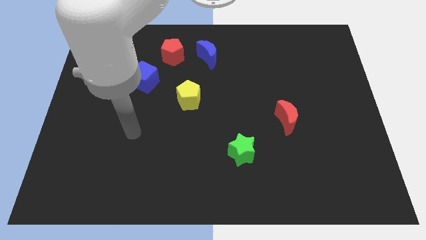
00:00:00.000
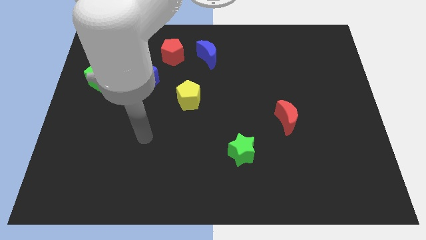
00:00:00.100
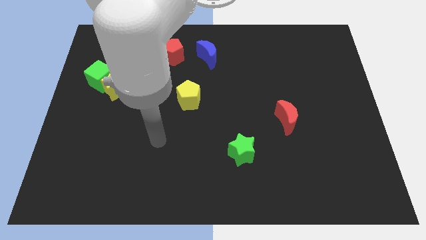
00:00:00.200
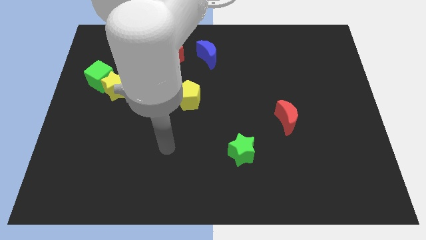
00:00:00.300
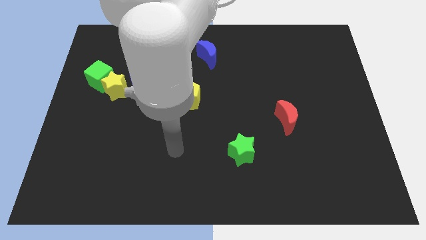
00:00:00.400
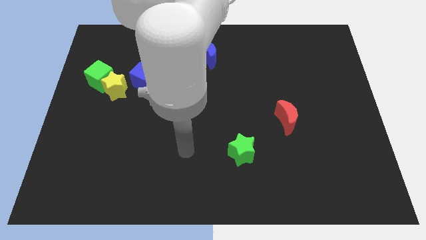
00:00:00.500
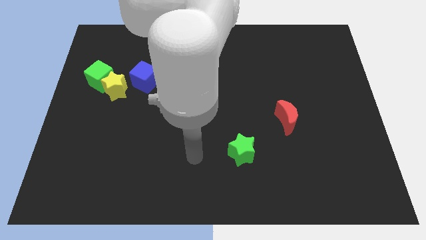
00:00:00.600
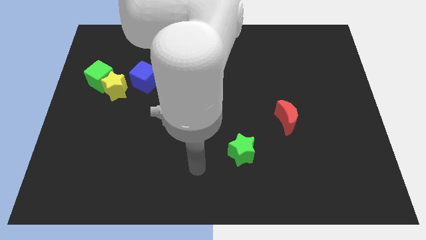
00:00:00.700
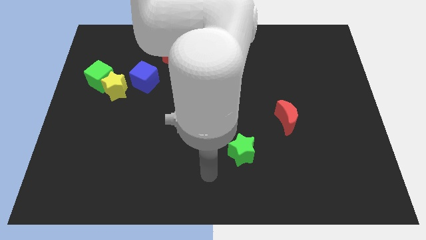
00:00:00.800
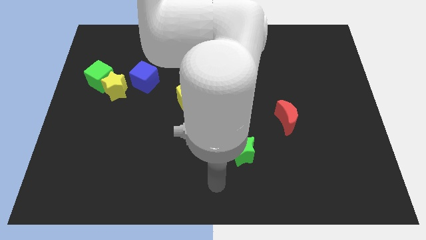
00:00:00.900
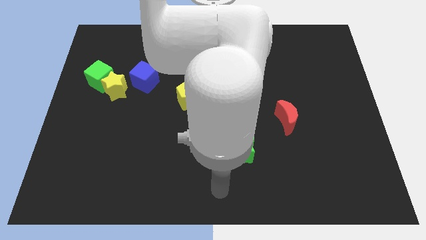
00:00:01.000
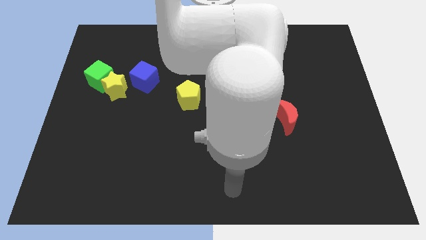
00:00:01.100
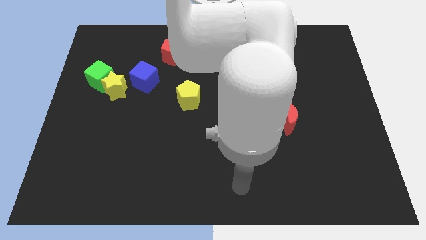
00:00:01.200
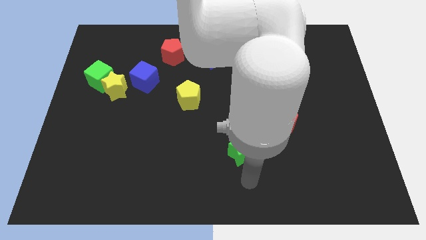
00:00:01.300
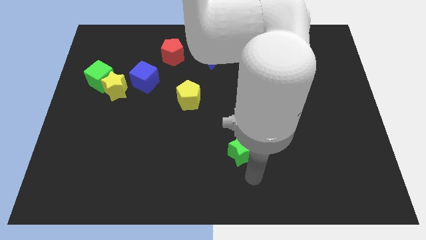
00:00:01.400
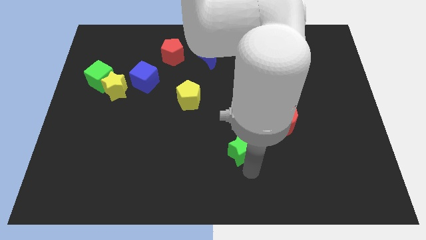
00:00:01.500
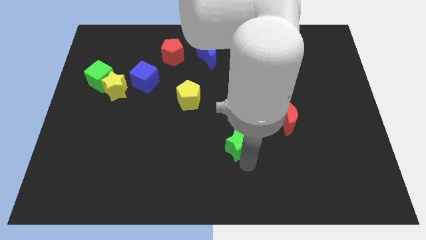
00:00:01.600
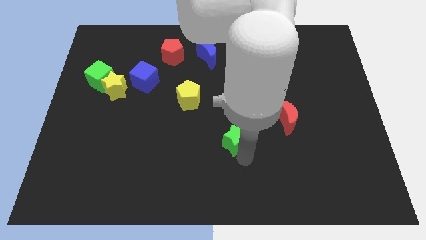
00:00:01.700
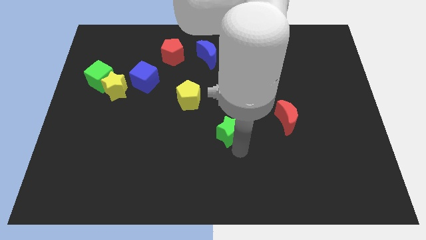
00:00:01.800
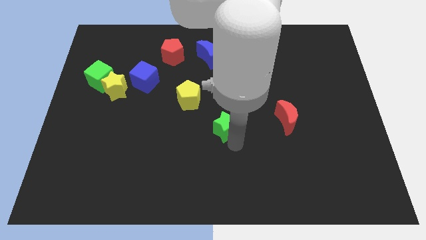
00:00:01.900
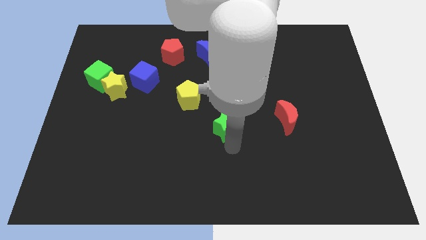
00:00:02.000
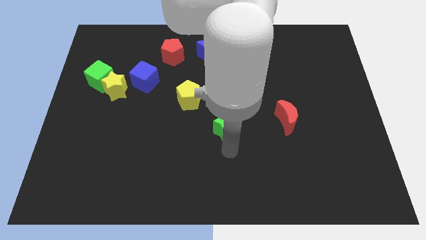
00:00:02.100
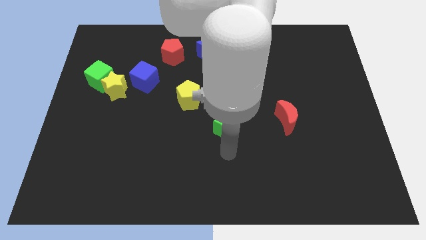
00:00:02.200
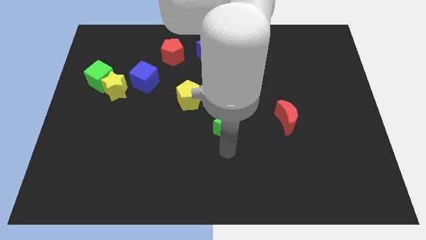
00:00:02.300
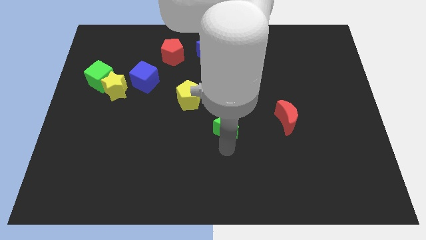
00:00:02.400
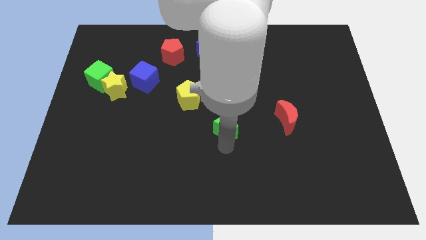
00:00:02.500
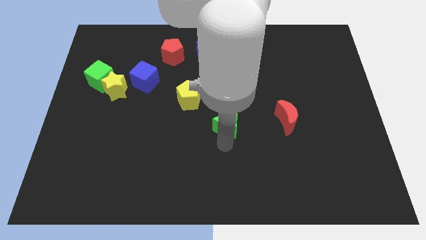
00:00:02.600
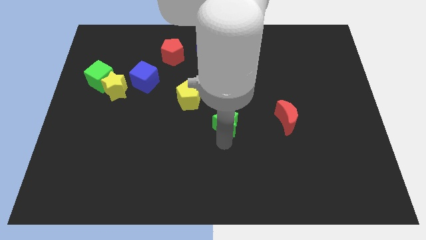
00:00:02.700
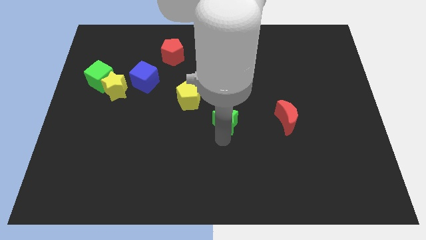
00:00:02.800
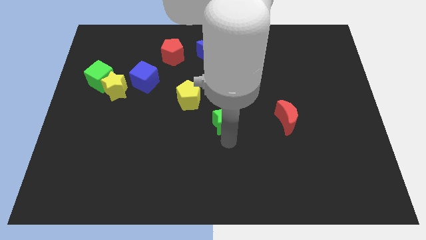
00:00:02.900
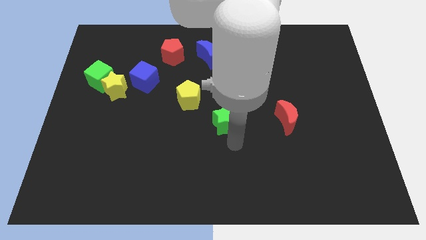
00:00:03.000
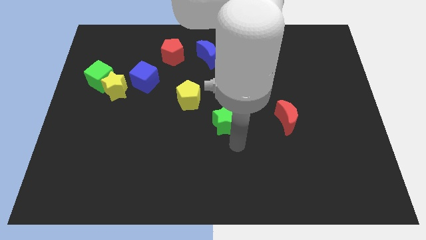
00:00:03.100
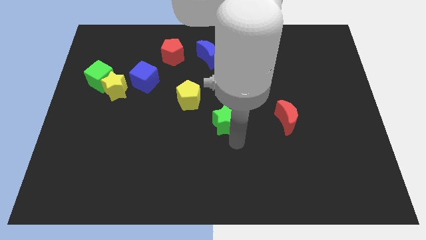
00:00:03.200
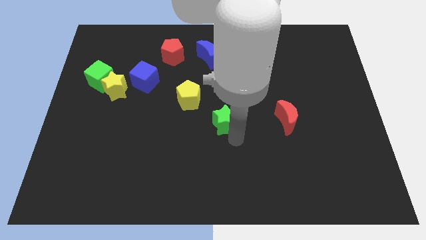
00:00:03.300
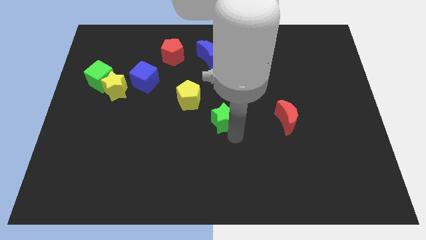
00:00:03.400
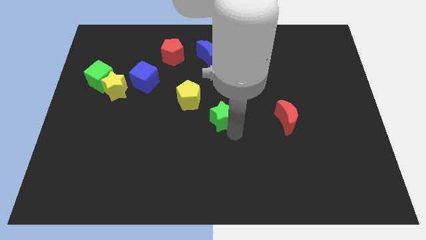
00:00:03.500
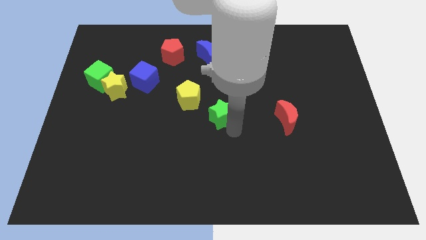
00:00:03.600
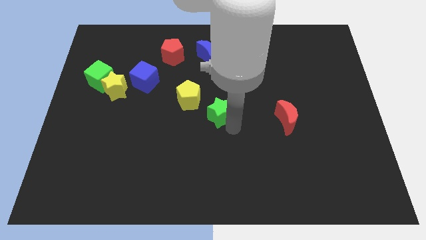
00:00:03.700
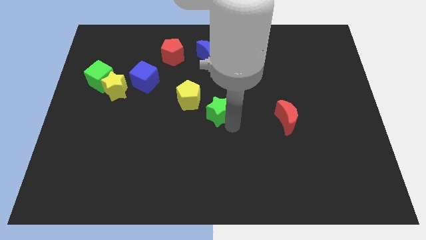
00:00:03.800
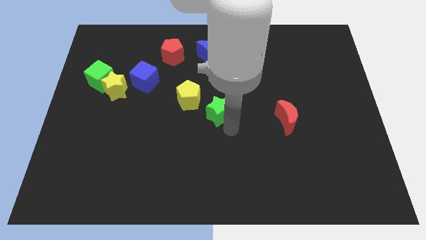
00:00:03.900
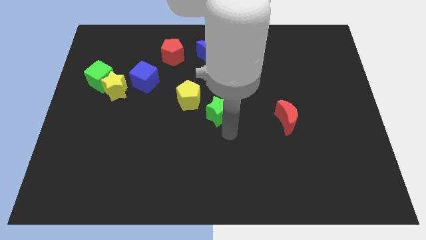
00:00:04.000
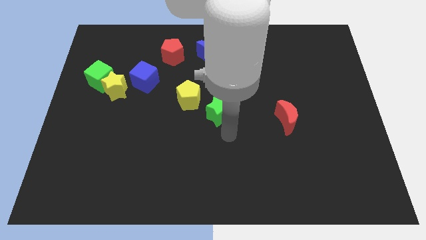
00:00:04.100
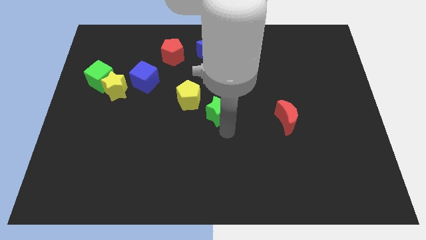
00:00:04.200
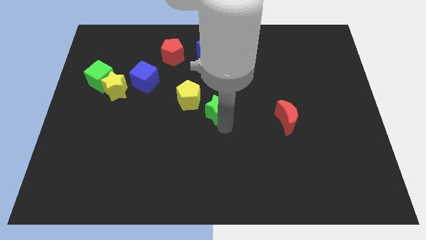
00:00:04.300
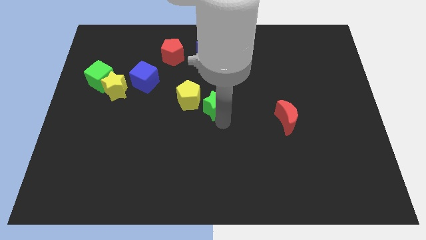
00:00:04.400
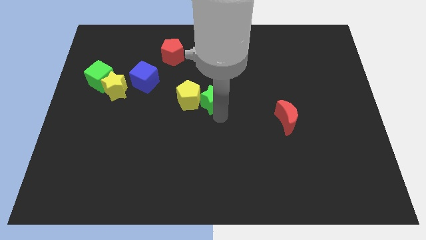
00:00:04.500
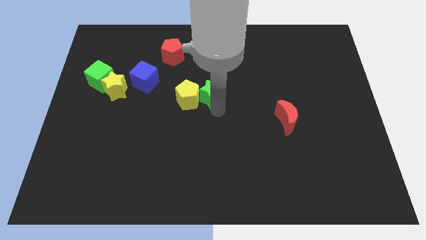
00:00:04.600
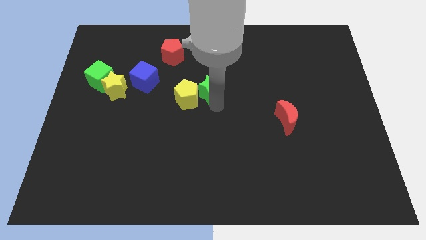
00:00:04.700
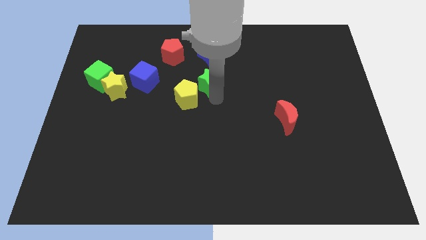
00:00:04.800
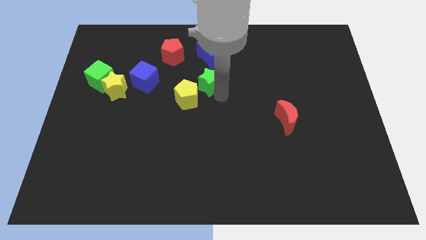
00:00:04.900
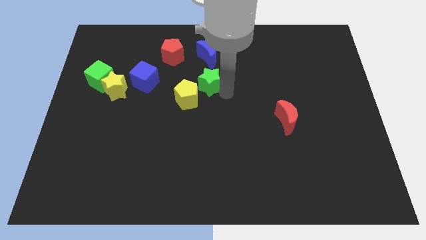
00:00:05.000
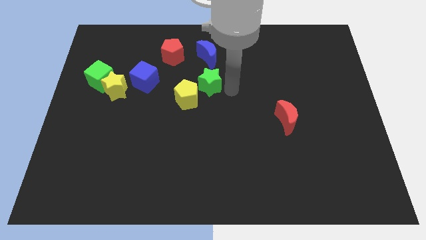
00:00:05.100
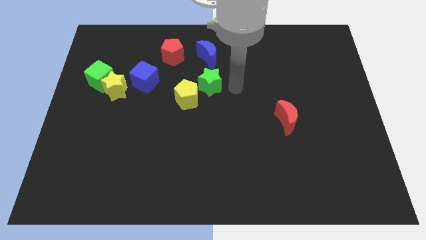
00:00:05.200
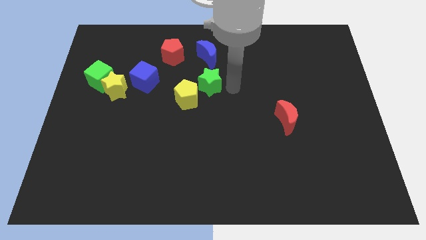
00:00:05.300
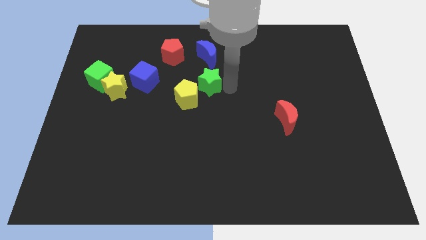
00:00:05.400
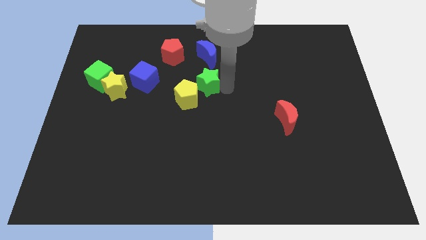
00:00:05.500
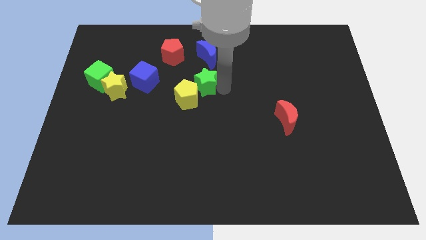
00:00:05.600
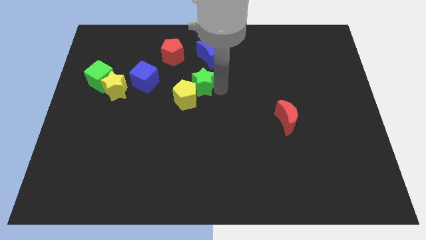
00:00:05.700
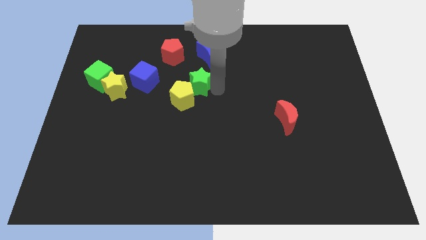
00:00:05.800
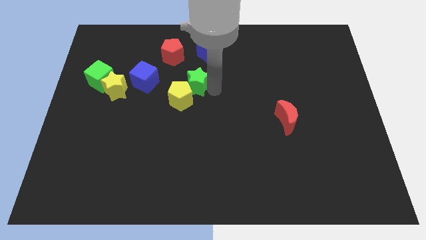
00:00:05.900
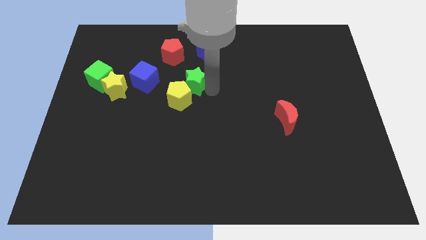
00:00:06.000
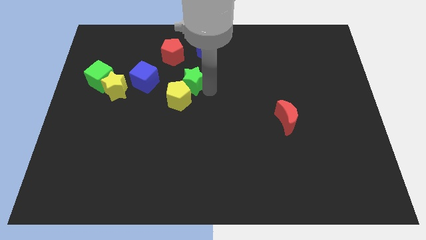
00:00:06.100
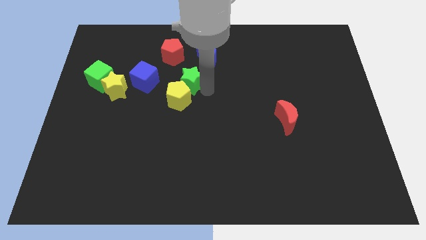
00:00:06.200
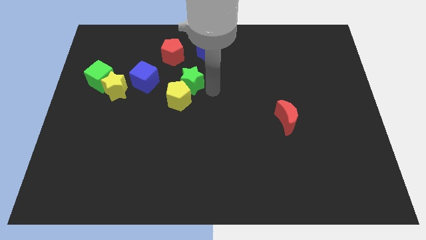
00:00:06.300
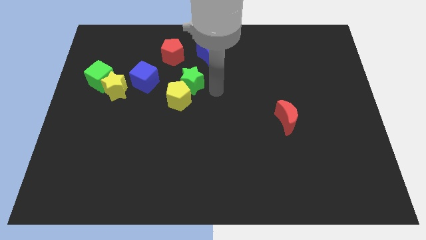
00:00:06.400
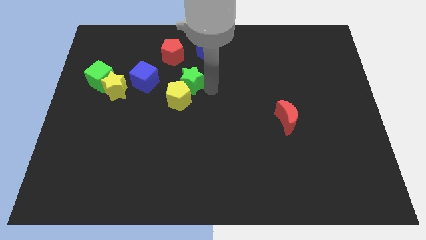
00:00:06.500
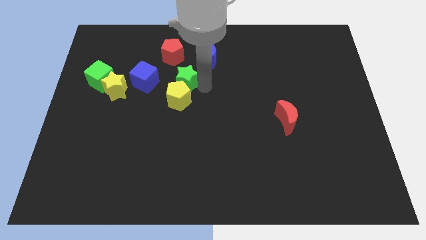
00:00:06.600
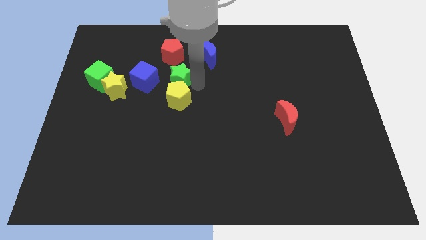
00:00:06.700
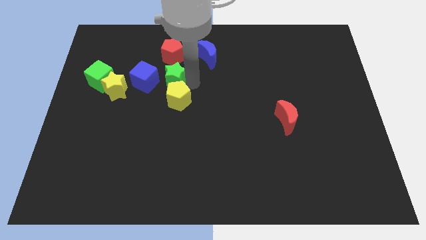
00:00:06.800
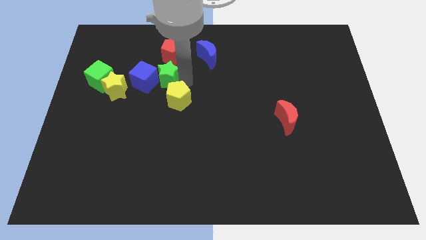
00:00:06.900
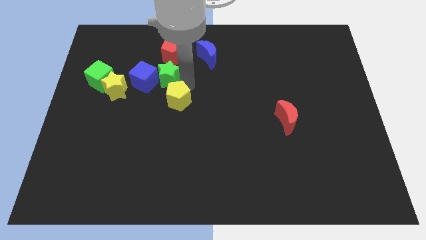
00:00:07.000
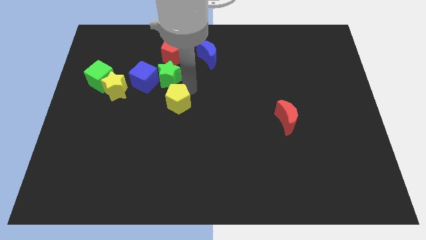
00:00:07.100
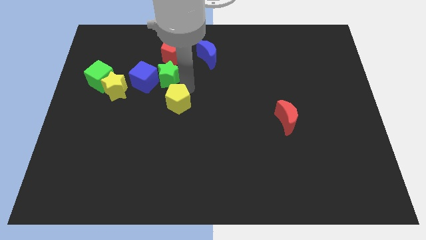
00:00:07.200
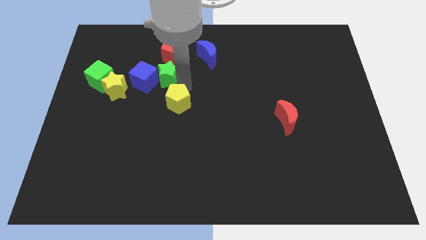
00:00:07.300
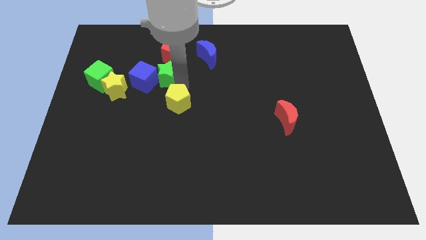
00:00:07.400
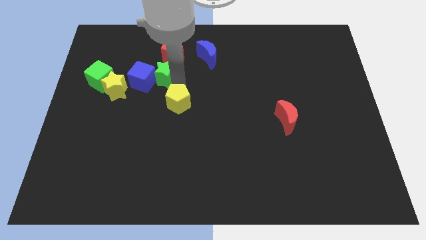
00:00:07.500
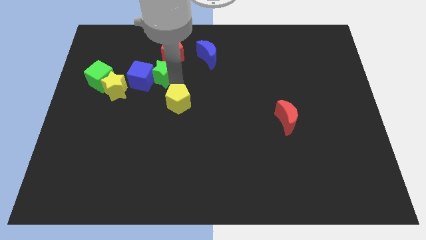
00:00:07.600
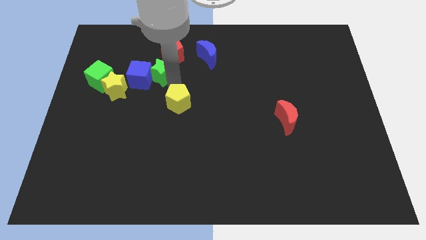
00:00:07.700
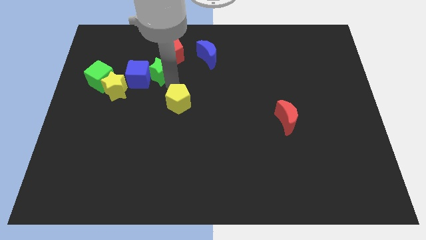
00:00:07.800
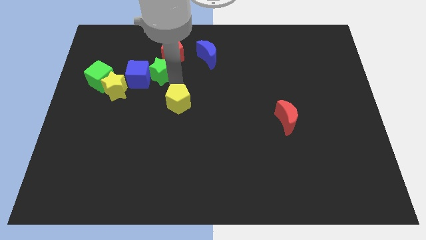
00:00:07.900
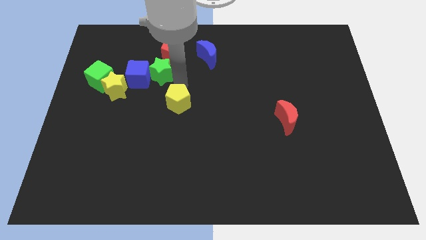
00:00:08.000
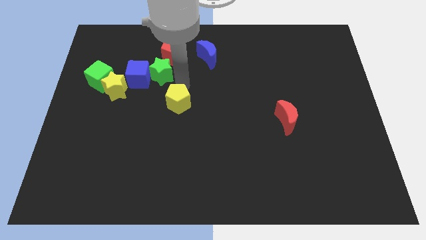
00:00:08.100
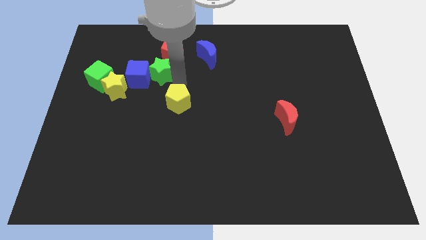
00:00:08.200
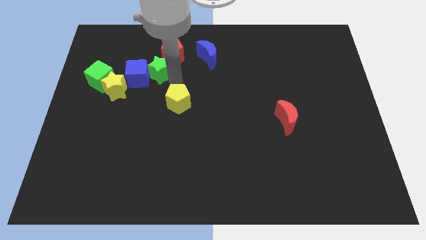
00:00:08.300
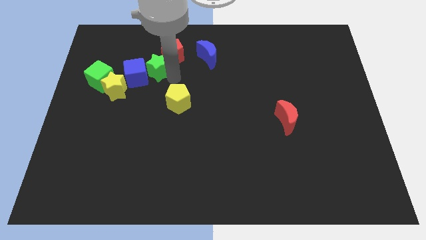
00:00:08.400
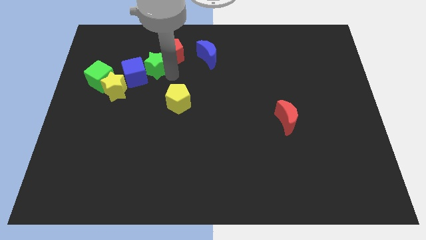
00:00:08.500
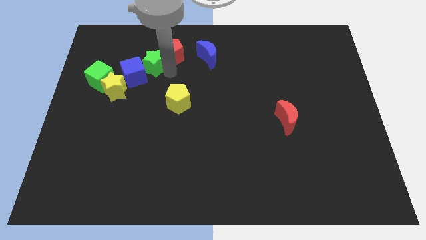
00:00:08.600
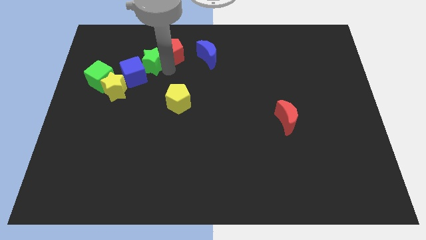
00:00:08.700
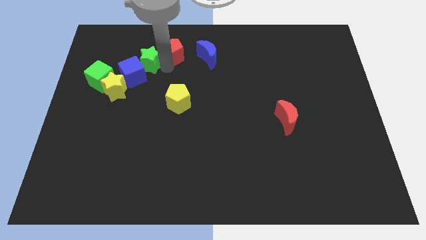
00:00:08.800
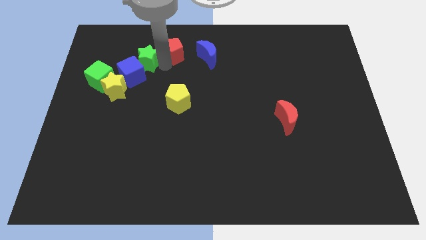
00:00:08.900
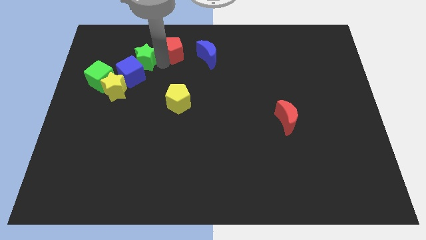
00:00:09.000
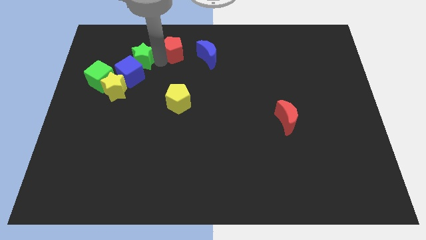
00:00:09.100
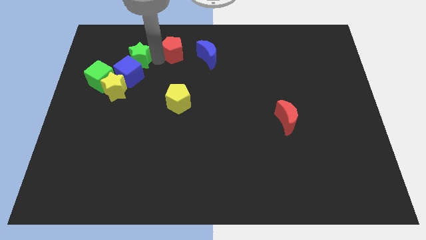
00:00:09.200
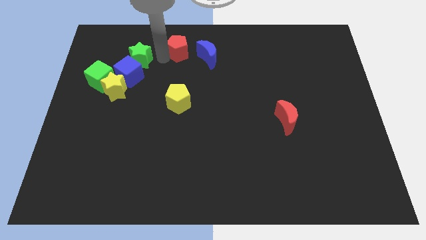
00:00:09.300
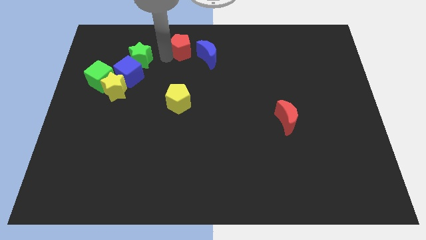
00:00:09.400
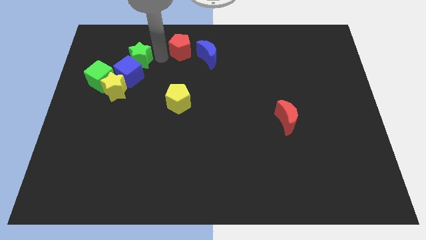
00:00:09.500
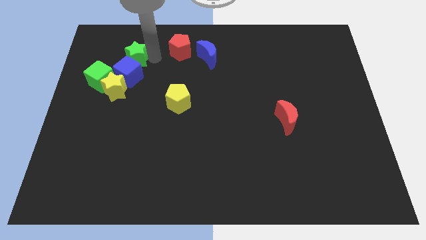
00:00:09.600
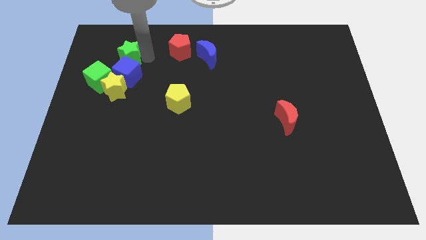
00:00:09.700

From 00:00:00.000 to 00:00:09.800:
move the green star to the top left side of the blue cube
